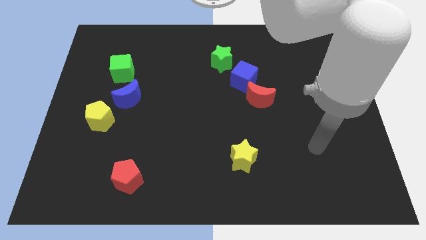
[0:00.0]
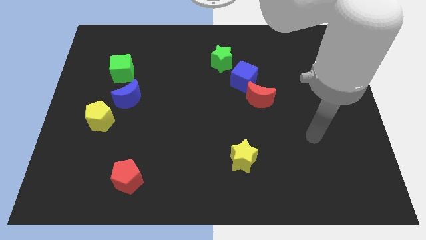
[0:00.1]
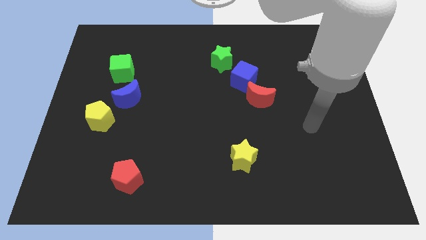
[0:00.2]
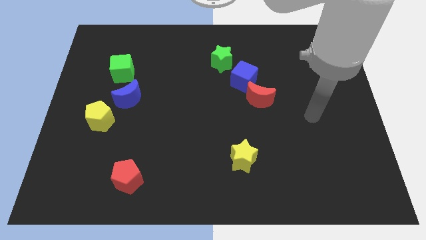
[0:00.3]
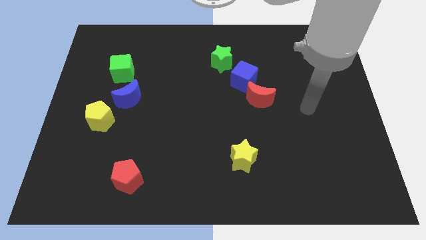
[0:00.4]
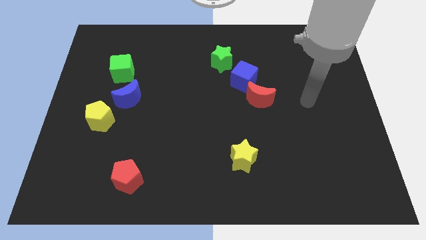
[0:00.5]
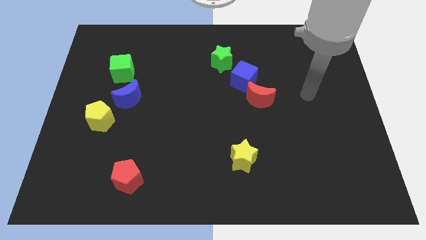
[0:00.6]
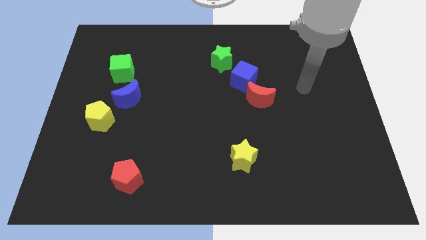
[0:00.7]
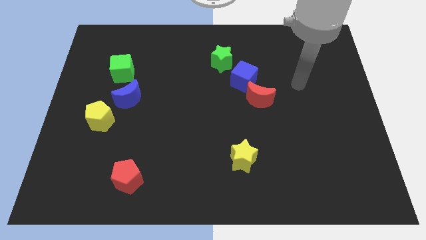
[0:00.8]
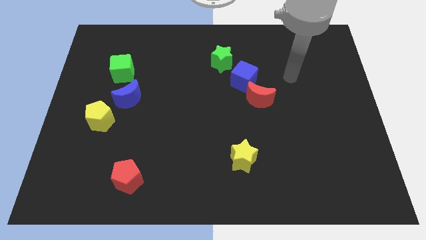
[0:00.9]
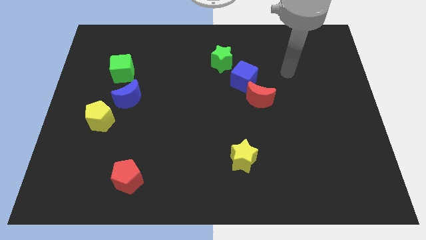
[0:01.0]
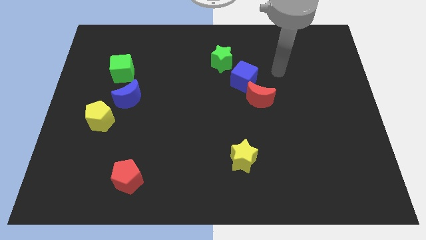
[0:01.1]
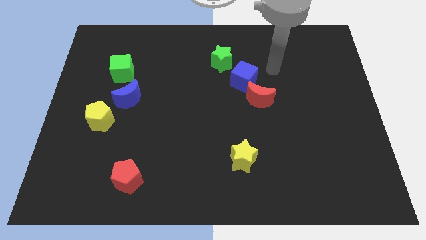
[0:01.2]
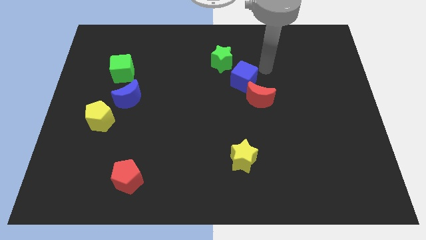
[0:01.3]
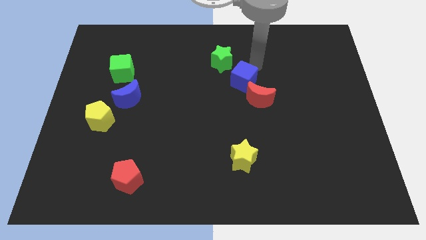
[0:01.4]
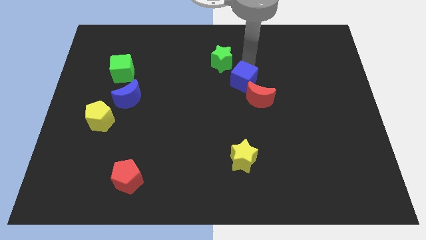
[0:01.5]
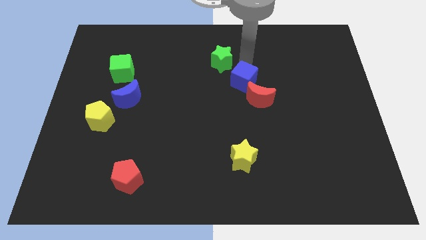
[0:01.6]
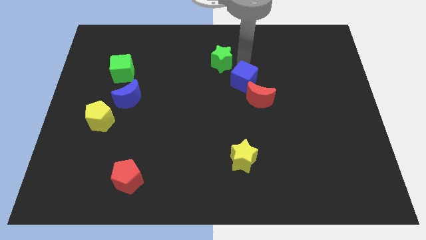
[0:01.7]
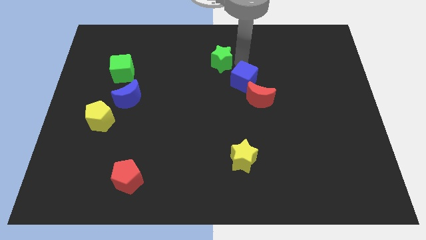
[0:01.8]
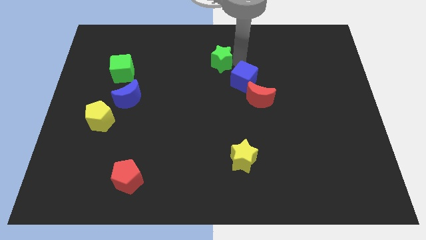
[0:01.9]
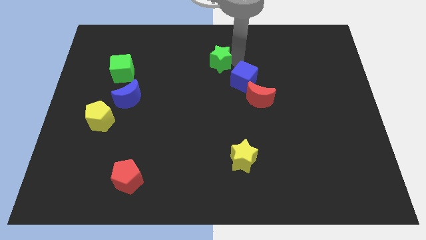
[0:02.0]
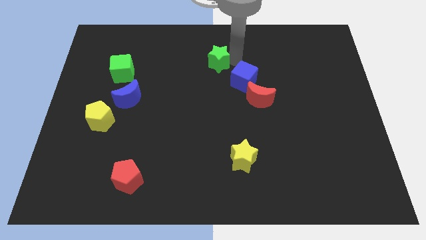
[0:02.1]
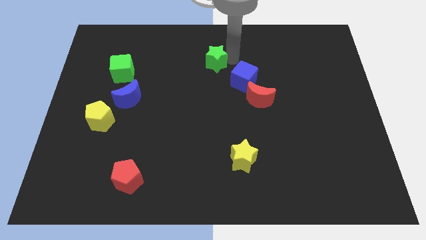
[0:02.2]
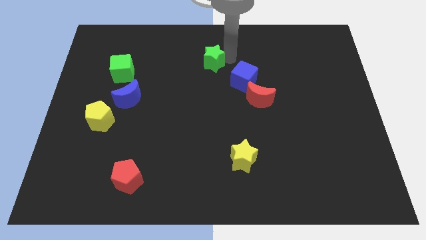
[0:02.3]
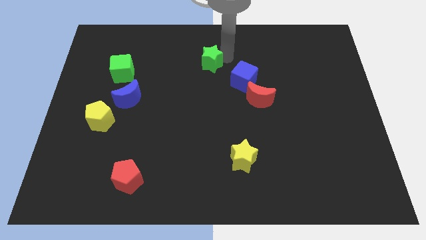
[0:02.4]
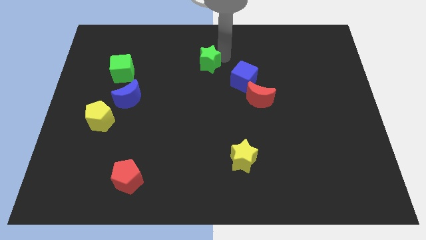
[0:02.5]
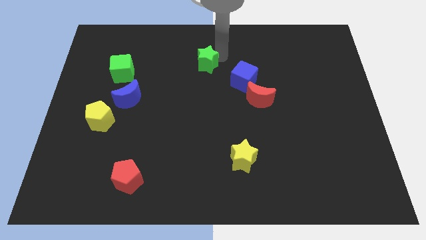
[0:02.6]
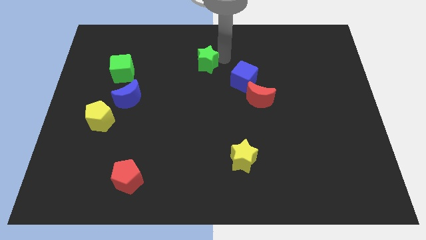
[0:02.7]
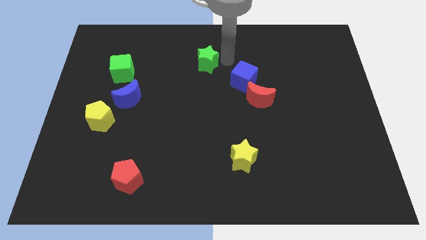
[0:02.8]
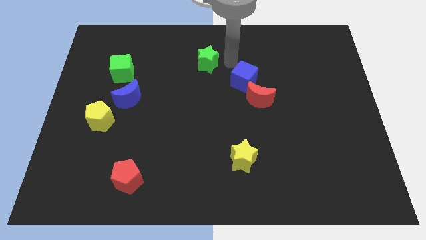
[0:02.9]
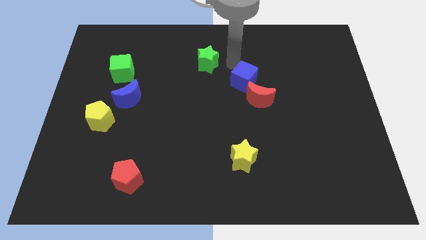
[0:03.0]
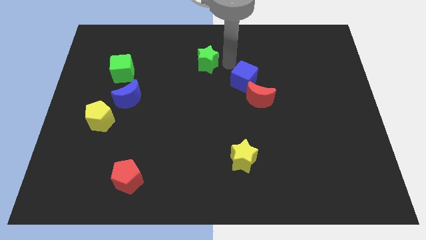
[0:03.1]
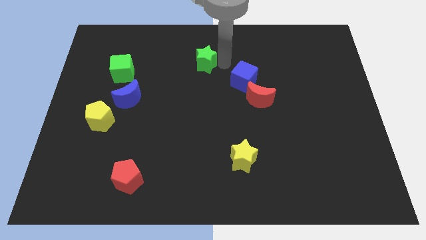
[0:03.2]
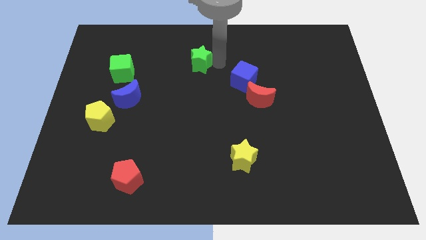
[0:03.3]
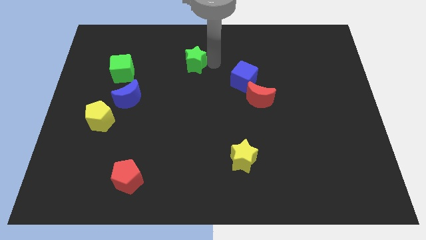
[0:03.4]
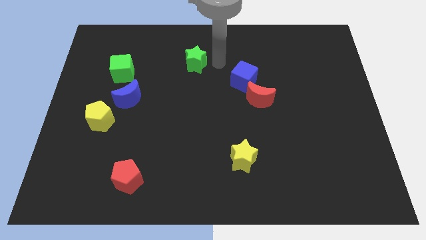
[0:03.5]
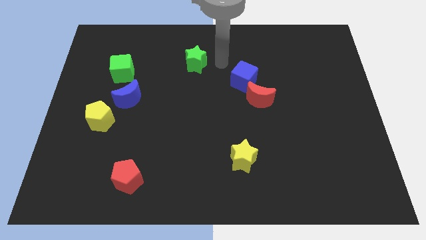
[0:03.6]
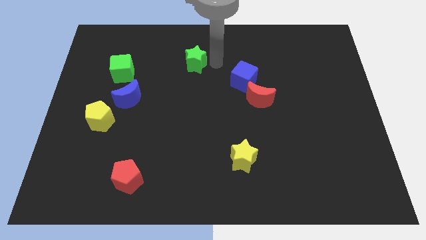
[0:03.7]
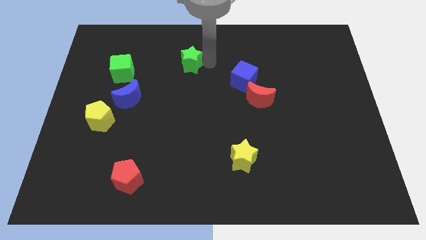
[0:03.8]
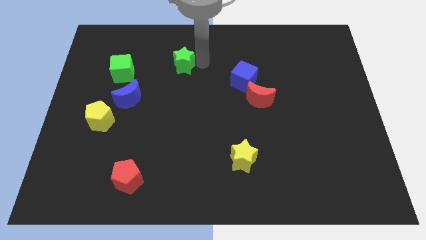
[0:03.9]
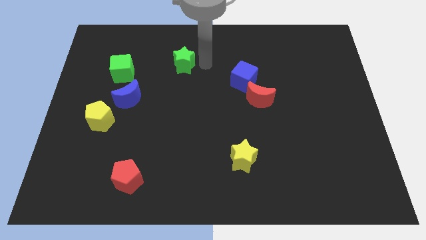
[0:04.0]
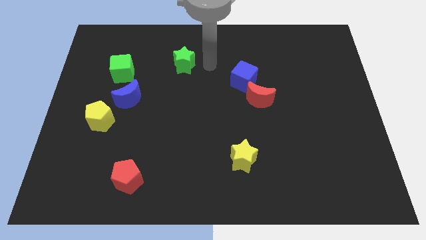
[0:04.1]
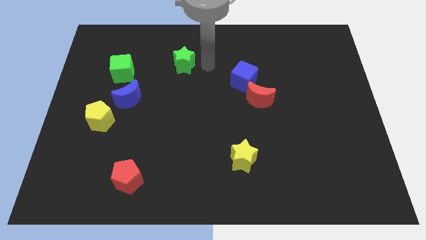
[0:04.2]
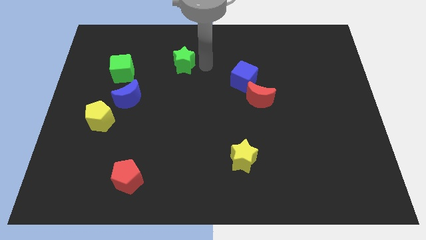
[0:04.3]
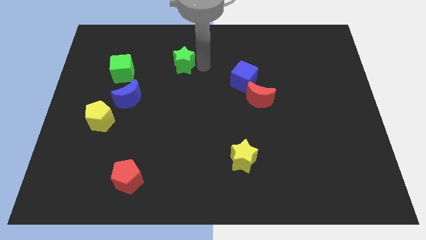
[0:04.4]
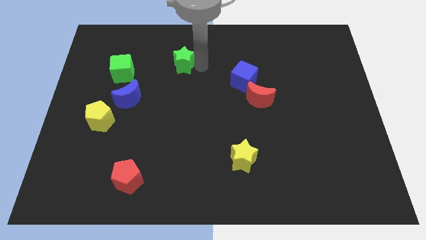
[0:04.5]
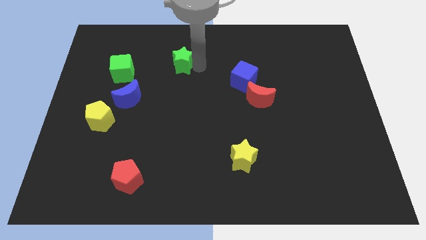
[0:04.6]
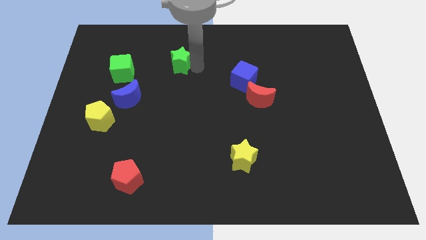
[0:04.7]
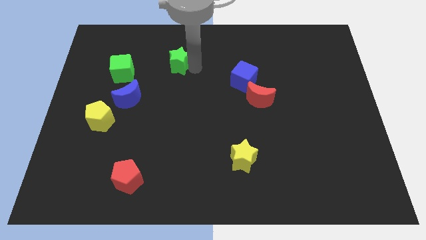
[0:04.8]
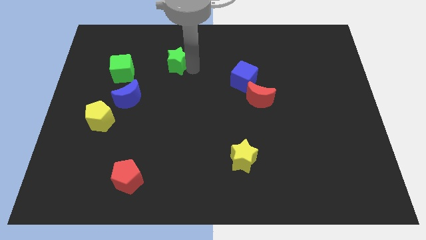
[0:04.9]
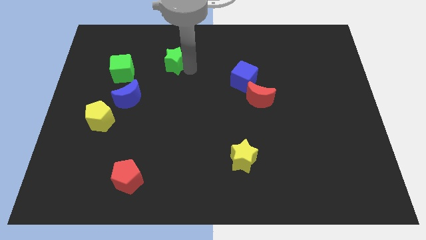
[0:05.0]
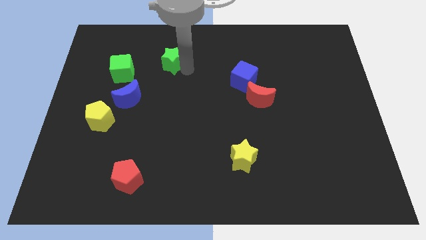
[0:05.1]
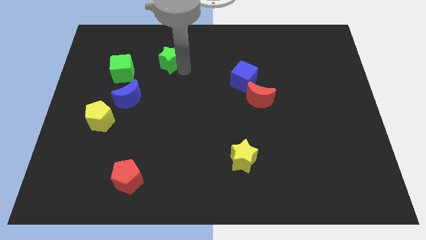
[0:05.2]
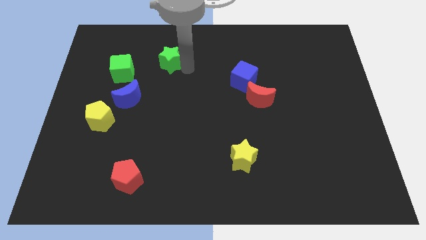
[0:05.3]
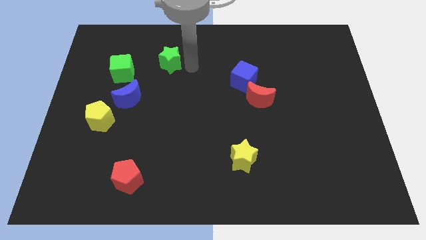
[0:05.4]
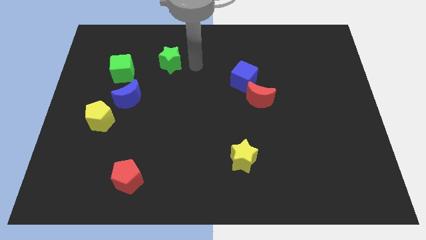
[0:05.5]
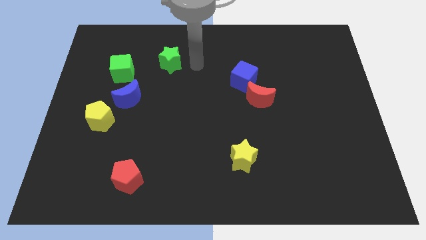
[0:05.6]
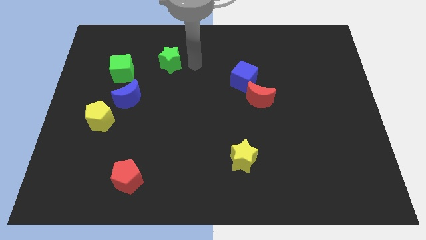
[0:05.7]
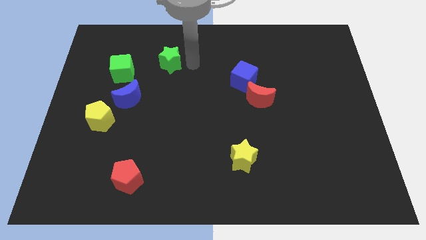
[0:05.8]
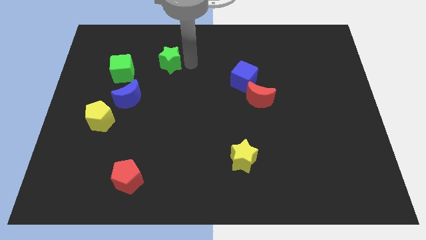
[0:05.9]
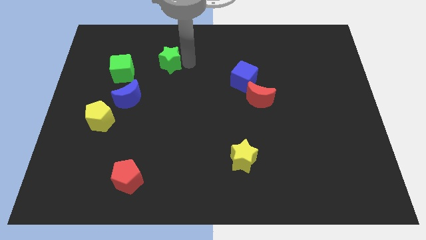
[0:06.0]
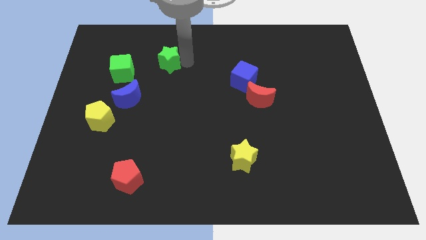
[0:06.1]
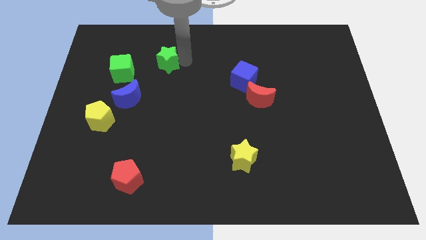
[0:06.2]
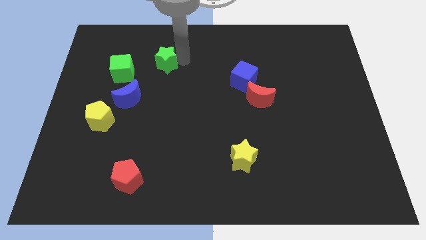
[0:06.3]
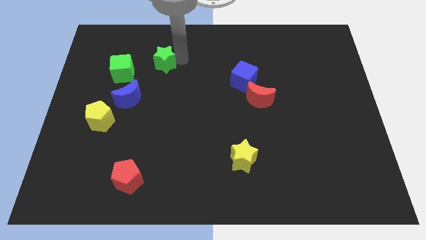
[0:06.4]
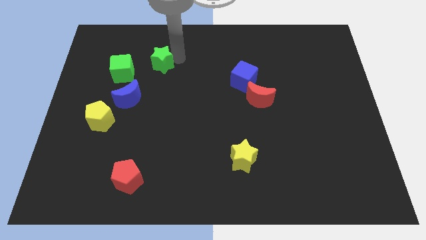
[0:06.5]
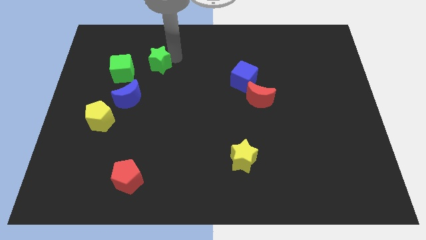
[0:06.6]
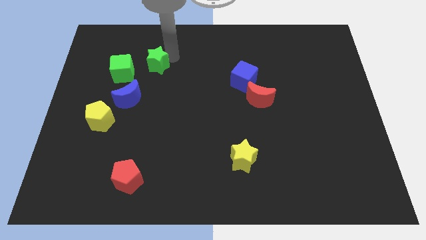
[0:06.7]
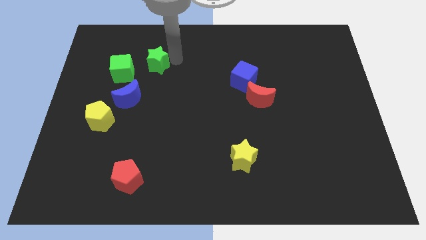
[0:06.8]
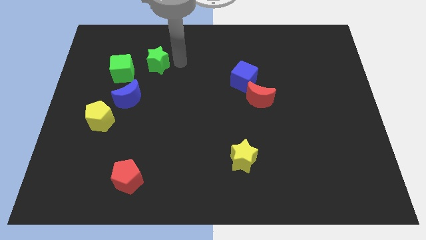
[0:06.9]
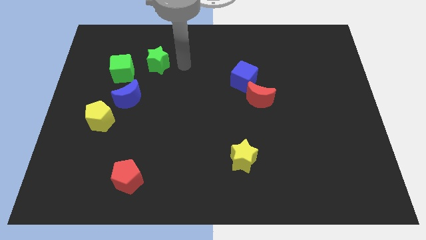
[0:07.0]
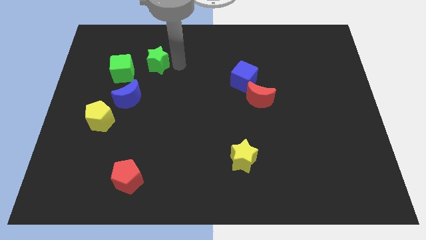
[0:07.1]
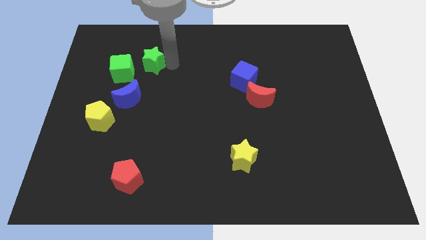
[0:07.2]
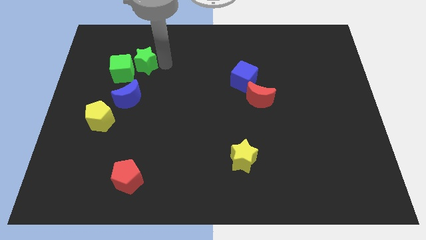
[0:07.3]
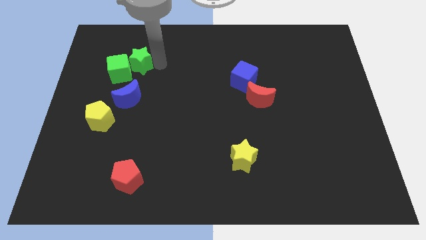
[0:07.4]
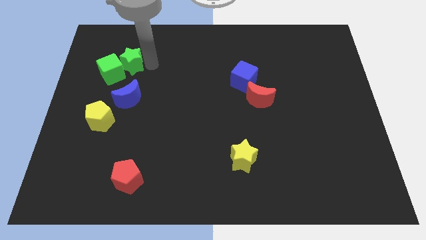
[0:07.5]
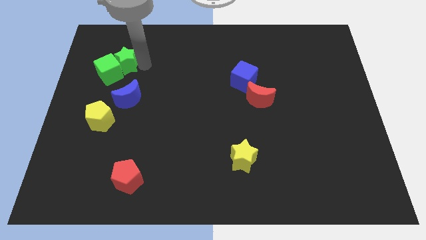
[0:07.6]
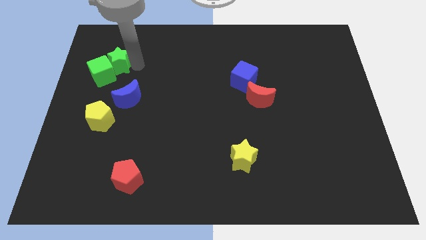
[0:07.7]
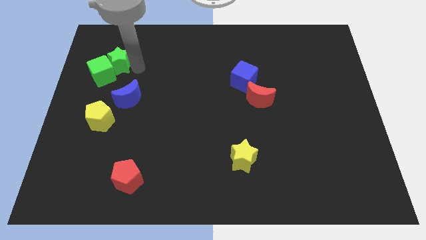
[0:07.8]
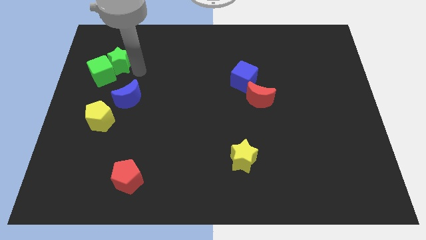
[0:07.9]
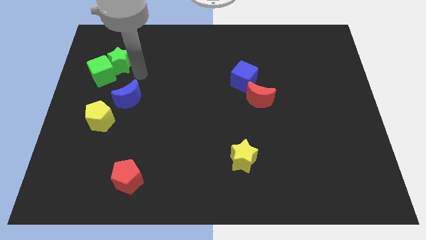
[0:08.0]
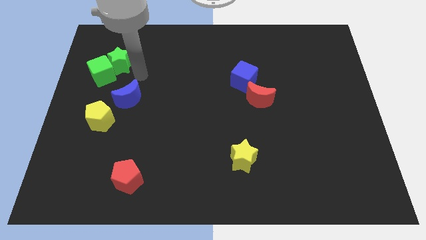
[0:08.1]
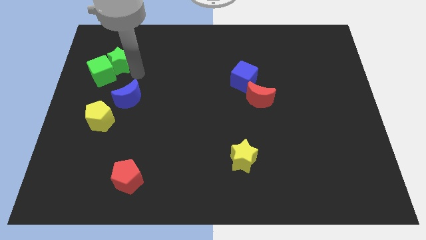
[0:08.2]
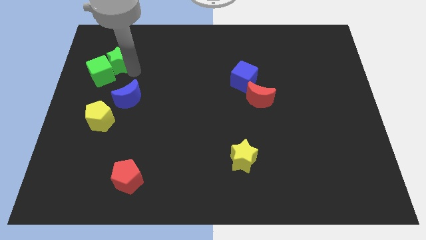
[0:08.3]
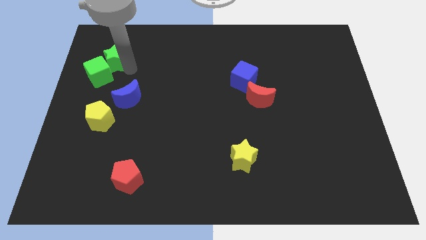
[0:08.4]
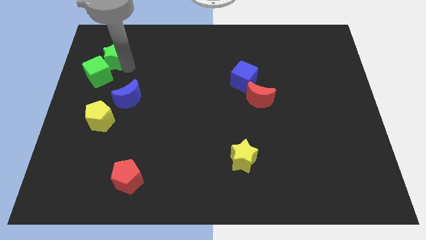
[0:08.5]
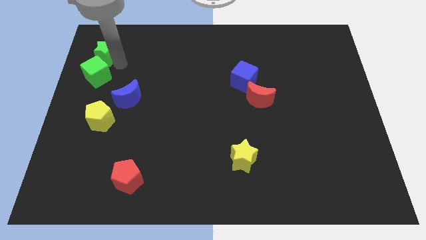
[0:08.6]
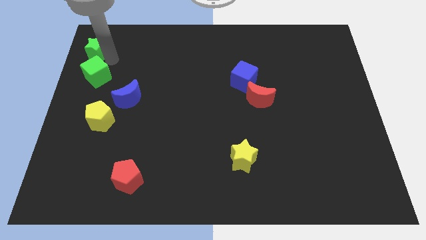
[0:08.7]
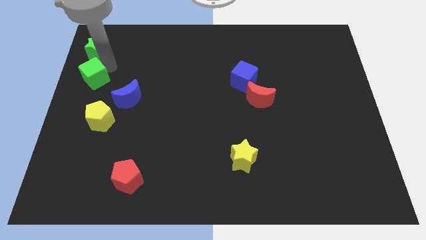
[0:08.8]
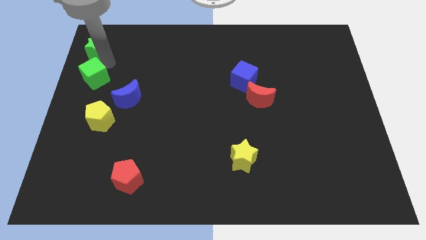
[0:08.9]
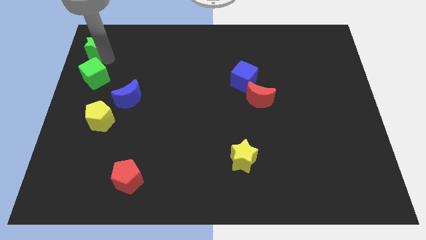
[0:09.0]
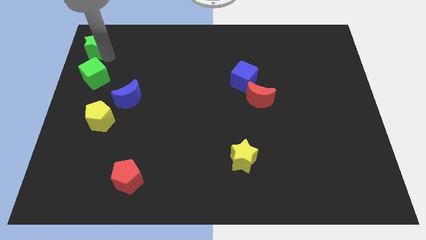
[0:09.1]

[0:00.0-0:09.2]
put the green star to the top left
